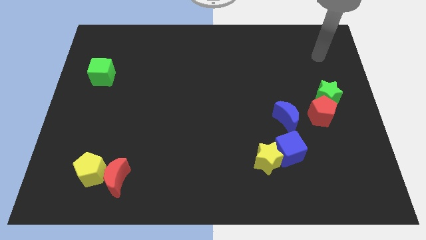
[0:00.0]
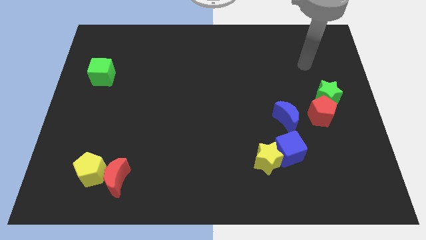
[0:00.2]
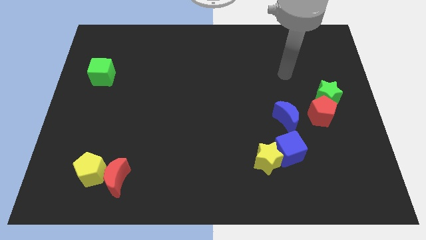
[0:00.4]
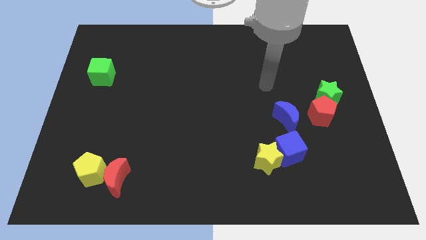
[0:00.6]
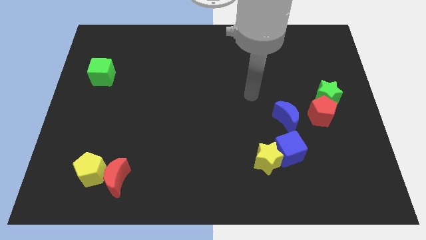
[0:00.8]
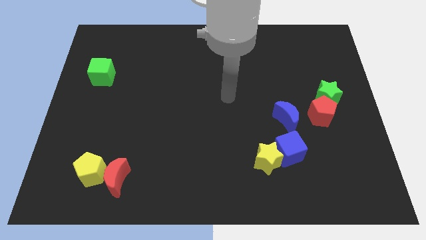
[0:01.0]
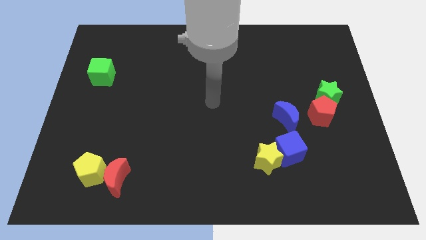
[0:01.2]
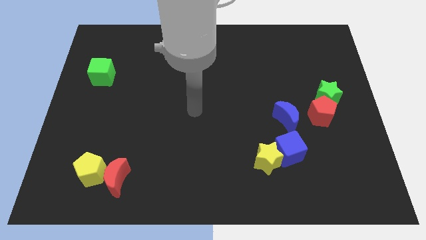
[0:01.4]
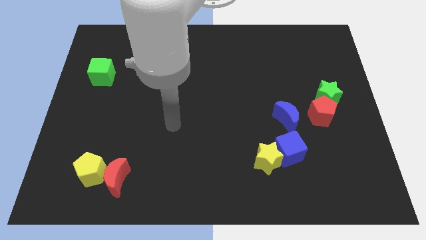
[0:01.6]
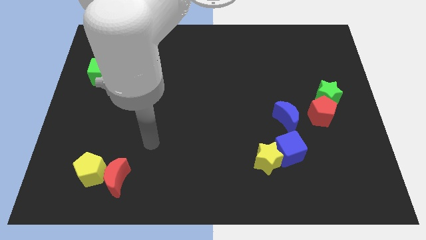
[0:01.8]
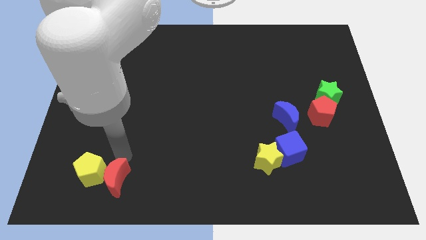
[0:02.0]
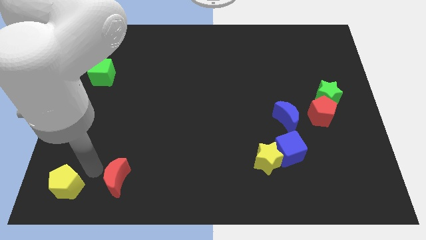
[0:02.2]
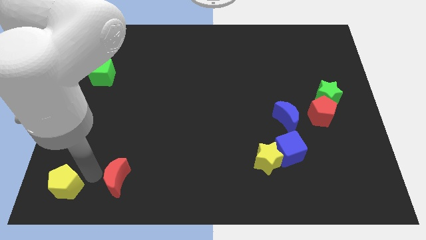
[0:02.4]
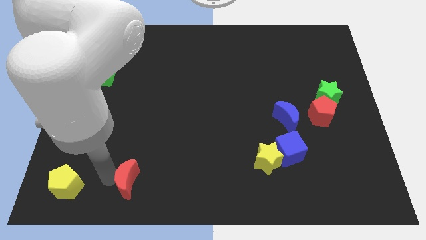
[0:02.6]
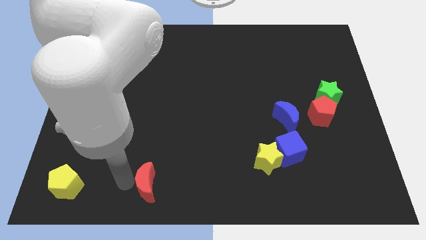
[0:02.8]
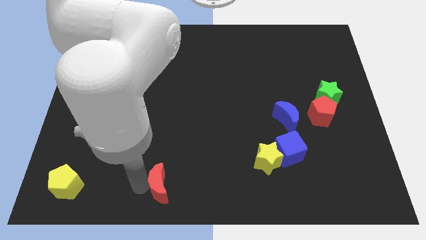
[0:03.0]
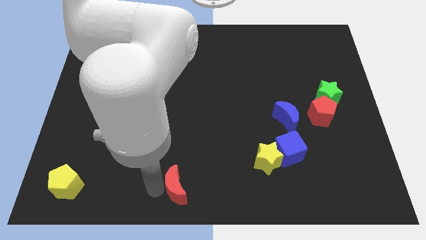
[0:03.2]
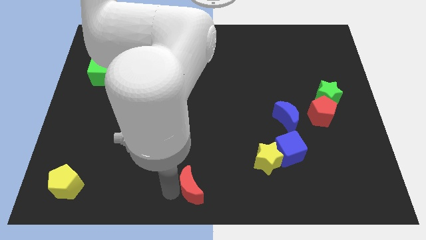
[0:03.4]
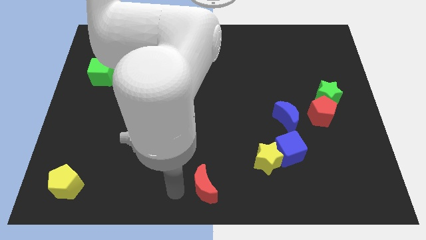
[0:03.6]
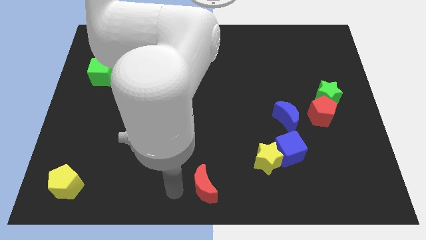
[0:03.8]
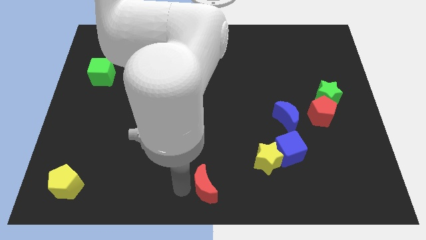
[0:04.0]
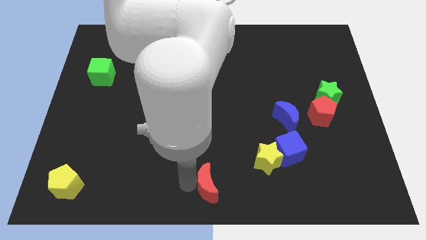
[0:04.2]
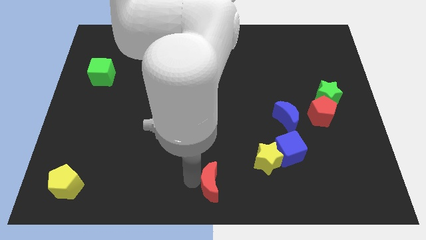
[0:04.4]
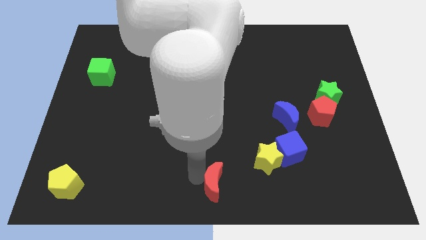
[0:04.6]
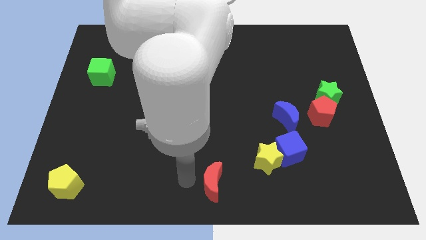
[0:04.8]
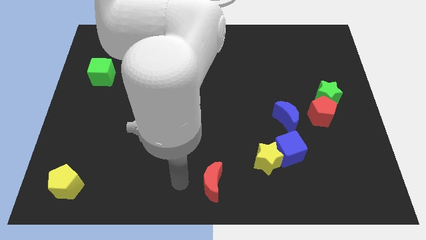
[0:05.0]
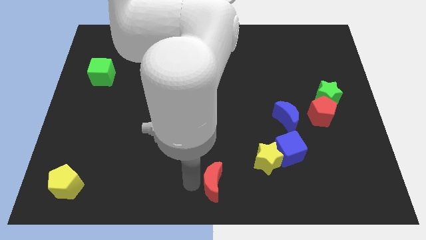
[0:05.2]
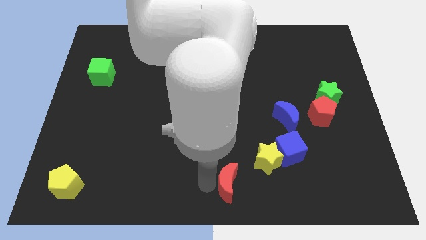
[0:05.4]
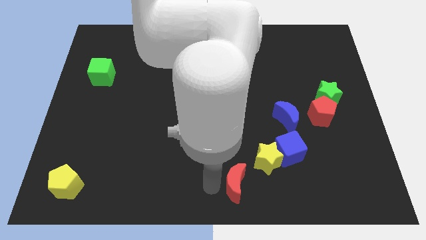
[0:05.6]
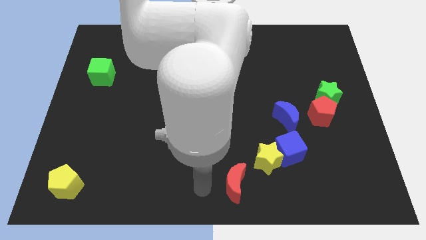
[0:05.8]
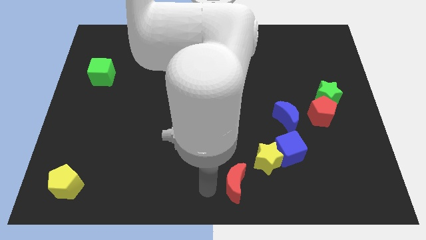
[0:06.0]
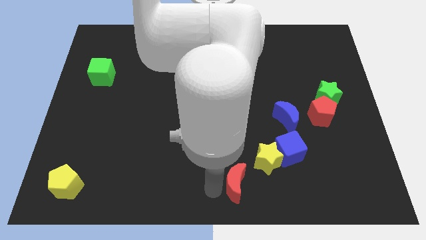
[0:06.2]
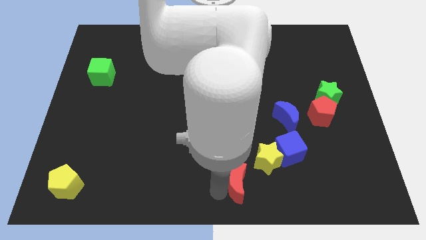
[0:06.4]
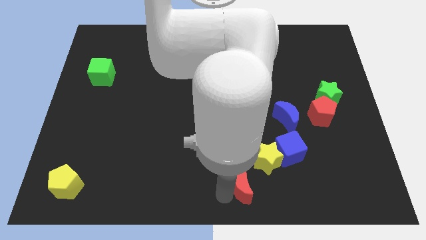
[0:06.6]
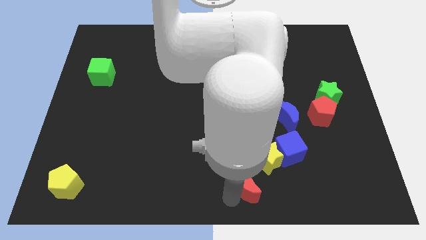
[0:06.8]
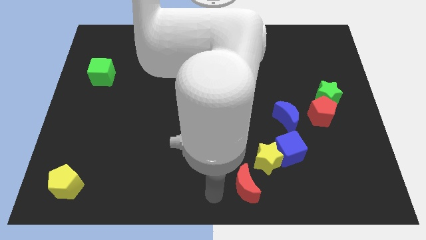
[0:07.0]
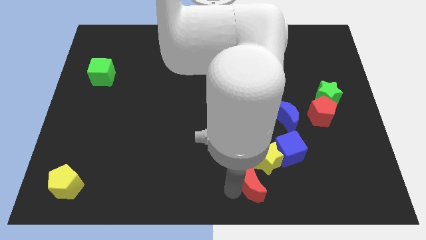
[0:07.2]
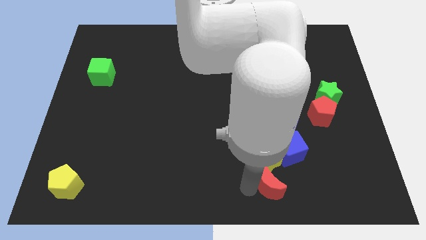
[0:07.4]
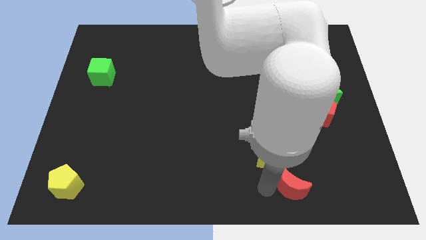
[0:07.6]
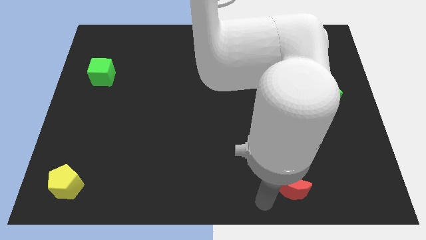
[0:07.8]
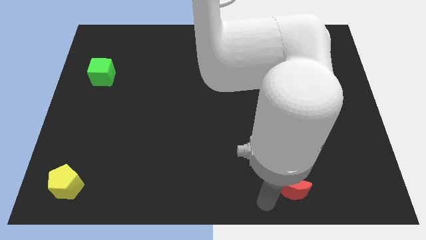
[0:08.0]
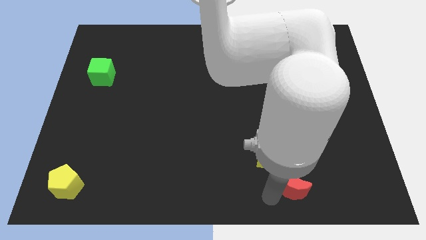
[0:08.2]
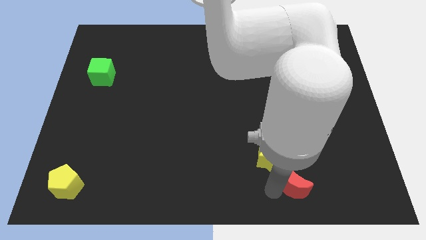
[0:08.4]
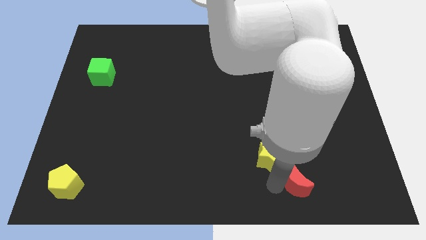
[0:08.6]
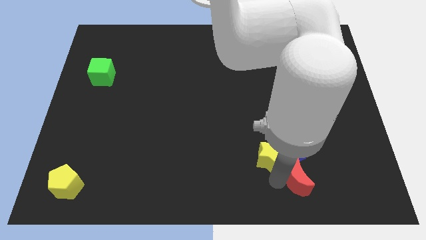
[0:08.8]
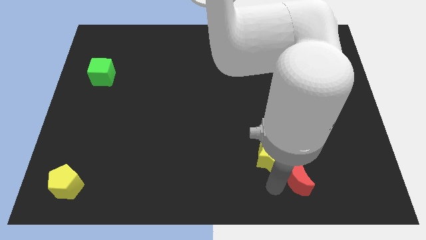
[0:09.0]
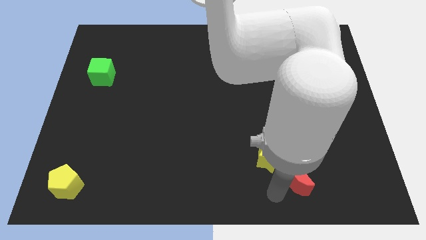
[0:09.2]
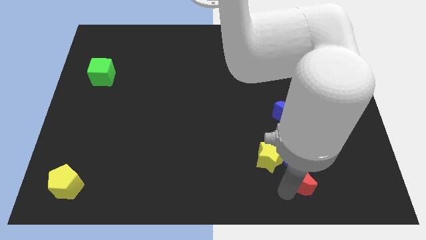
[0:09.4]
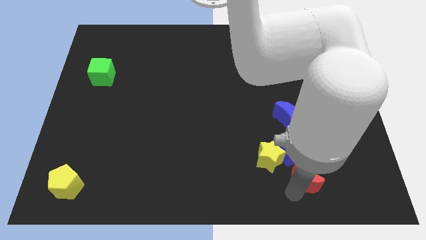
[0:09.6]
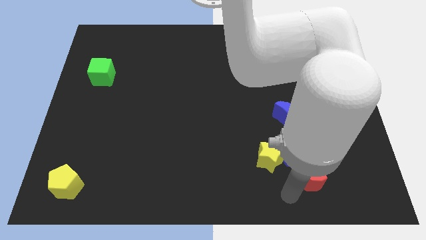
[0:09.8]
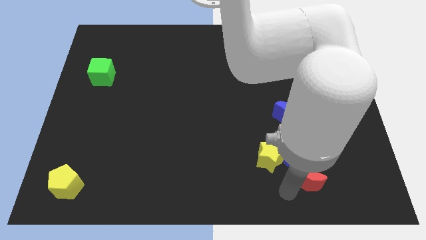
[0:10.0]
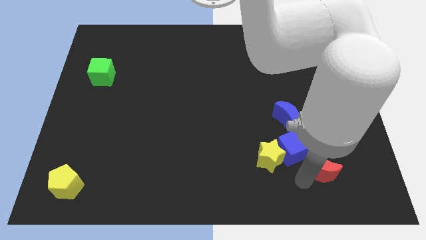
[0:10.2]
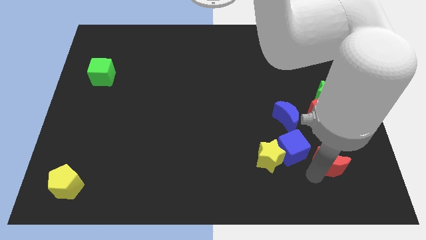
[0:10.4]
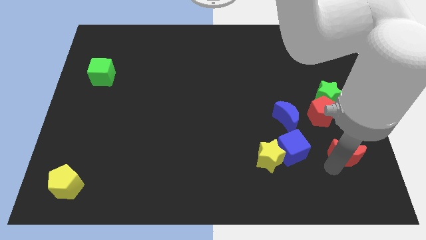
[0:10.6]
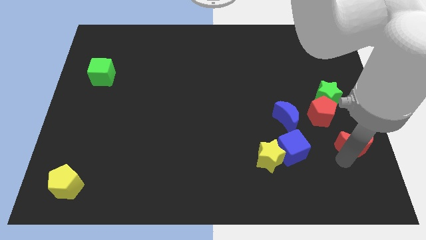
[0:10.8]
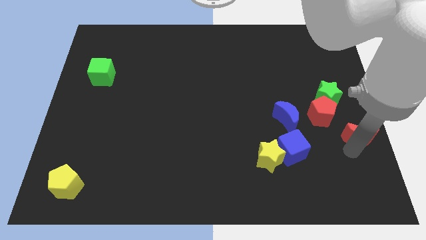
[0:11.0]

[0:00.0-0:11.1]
move the red moon to the center right
